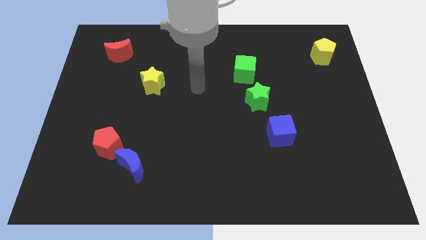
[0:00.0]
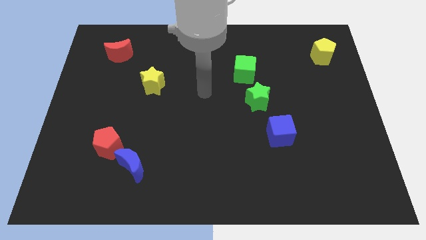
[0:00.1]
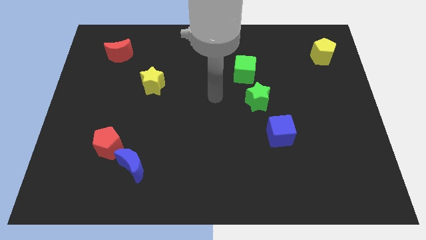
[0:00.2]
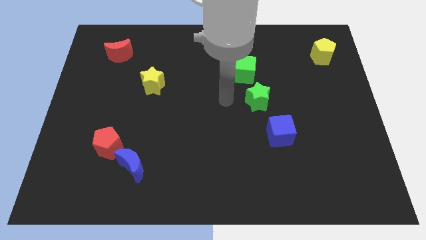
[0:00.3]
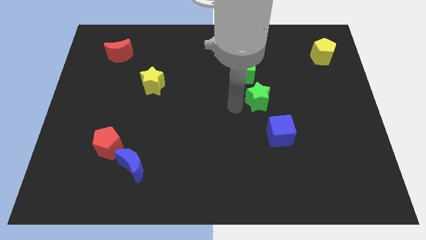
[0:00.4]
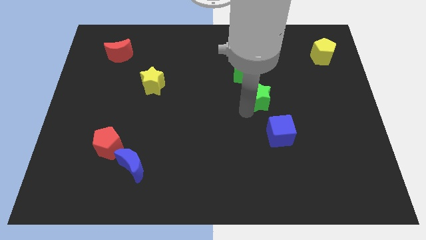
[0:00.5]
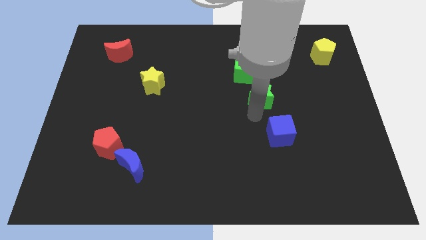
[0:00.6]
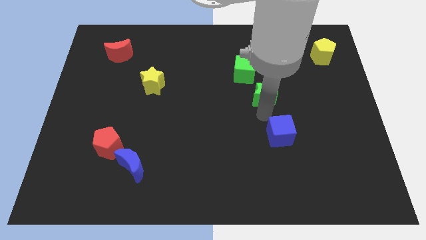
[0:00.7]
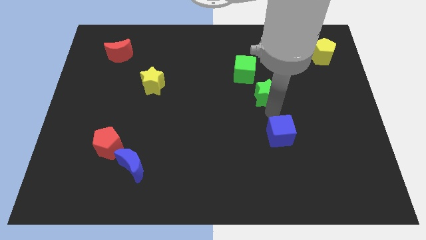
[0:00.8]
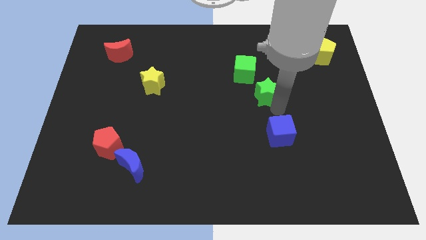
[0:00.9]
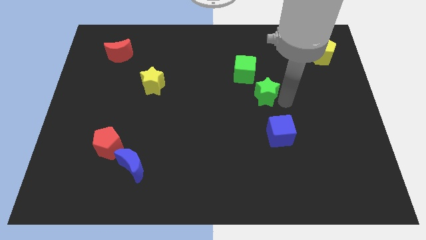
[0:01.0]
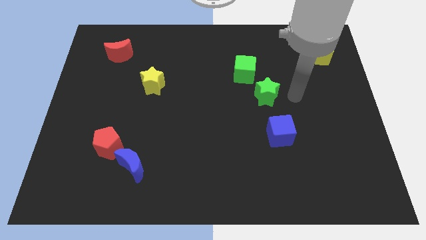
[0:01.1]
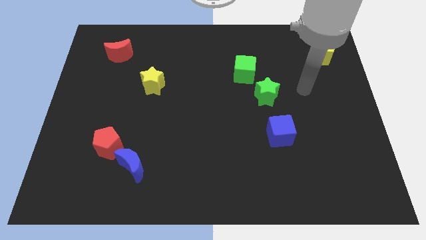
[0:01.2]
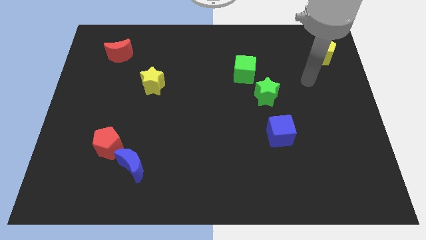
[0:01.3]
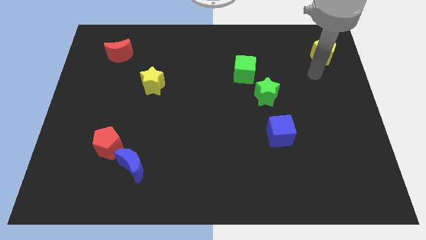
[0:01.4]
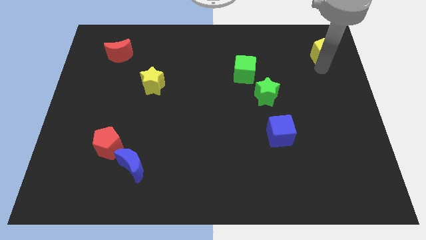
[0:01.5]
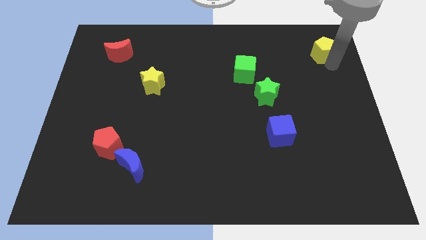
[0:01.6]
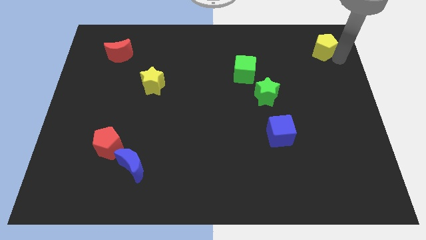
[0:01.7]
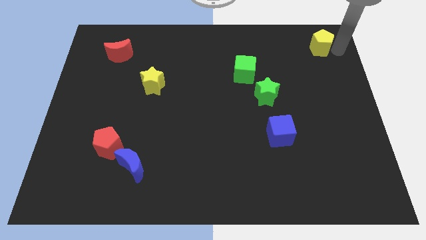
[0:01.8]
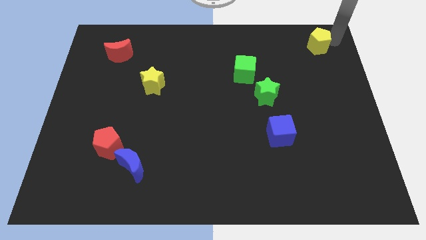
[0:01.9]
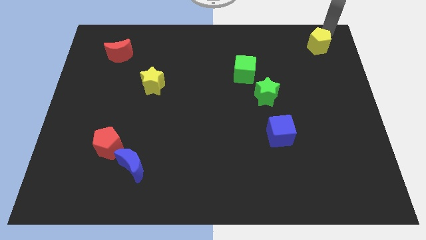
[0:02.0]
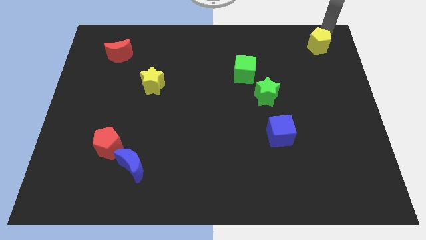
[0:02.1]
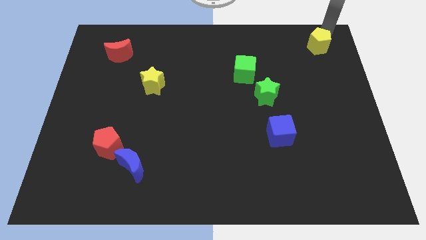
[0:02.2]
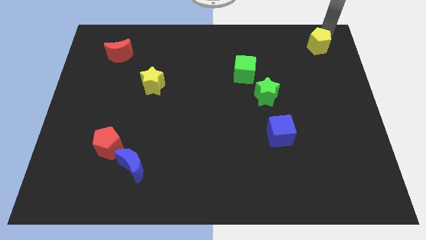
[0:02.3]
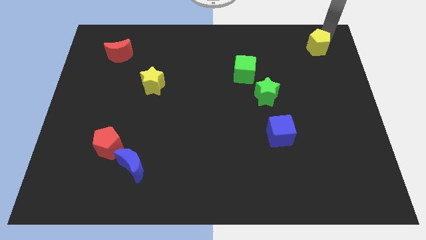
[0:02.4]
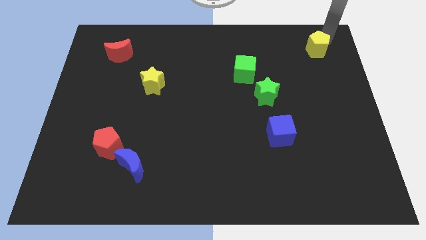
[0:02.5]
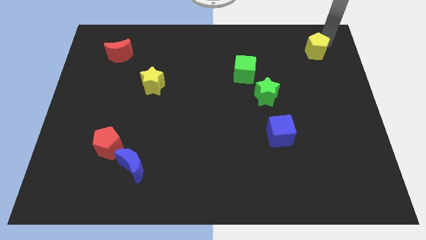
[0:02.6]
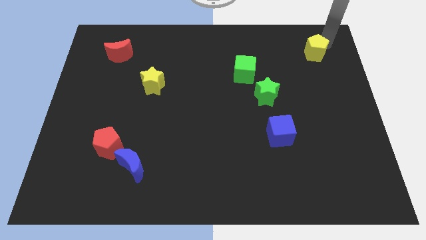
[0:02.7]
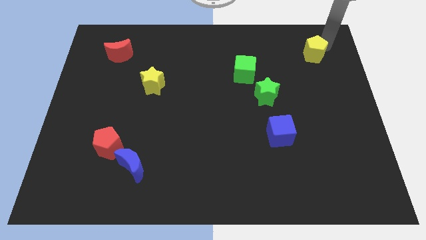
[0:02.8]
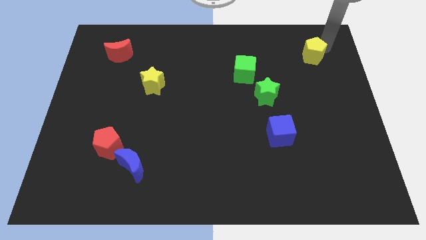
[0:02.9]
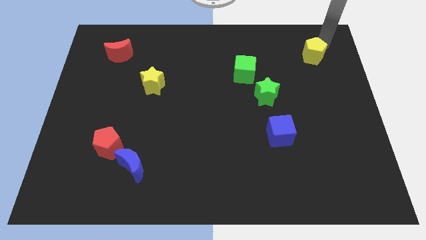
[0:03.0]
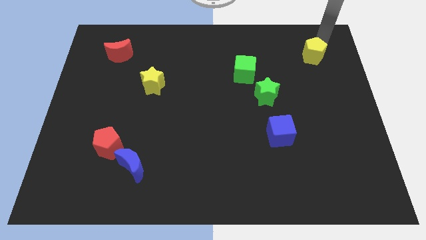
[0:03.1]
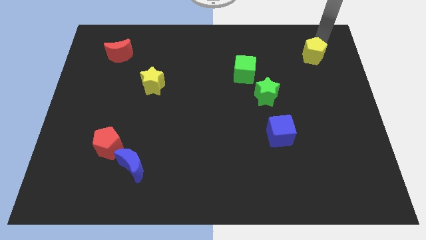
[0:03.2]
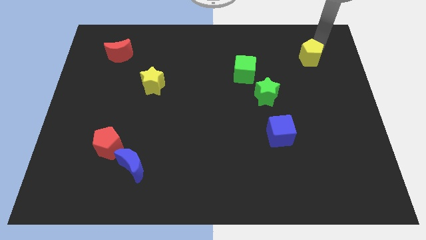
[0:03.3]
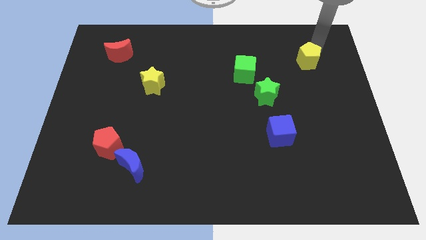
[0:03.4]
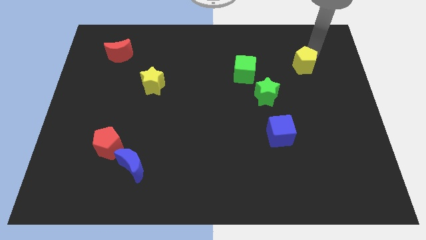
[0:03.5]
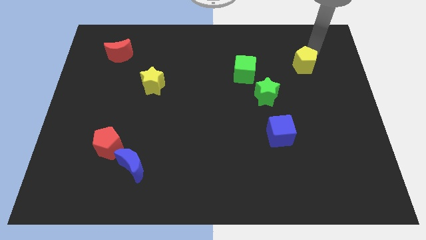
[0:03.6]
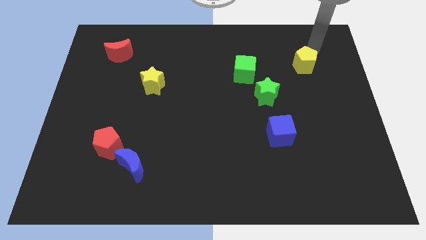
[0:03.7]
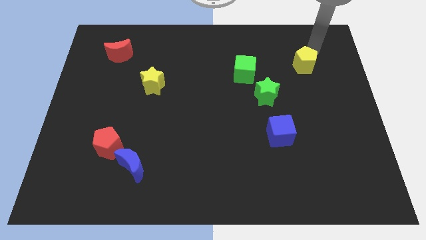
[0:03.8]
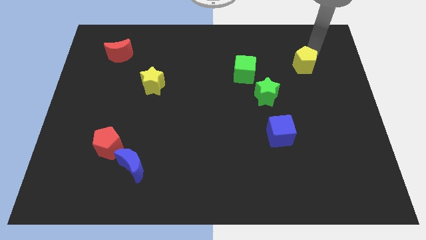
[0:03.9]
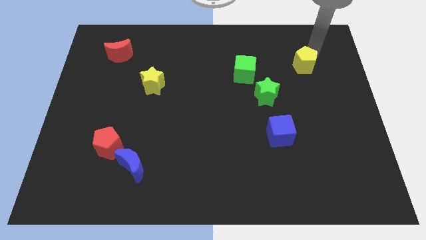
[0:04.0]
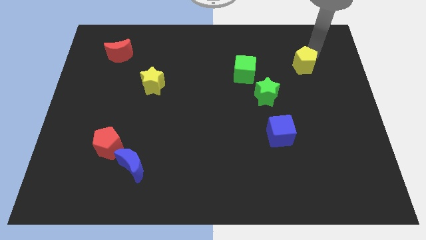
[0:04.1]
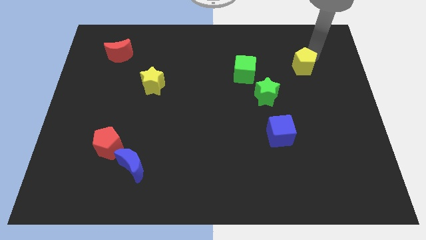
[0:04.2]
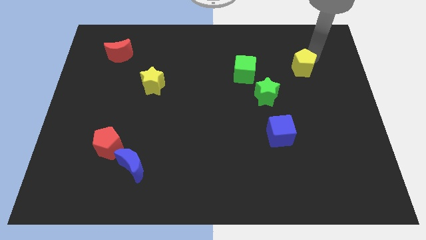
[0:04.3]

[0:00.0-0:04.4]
slightly slide the yellow pentagon downwards and then left

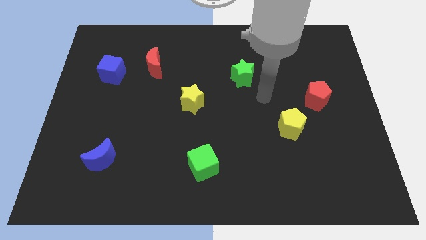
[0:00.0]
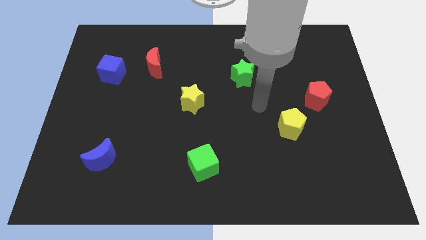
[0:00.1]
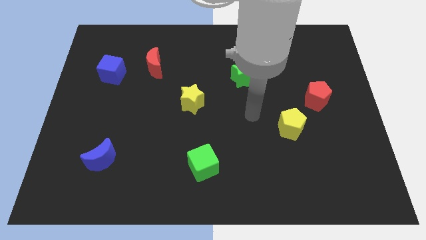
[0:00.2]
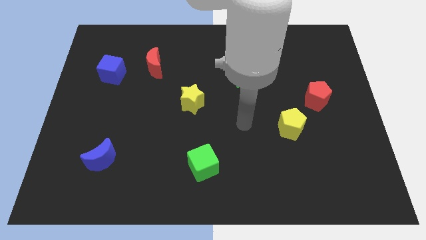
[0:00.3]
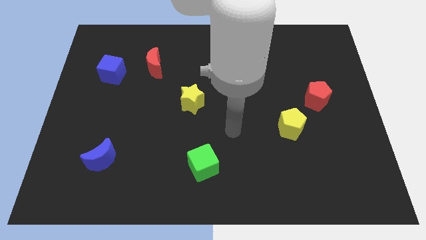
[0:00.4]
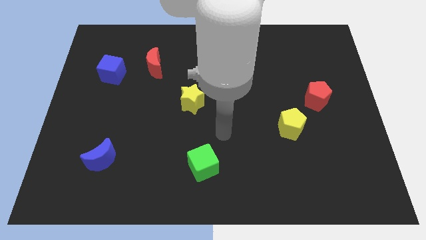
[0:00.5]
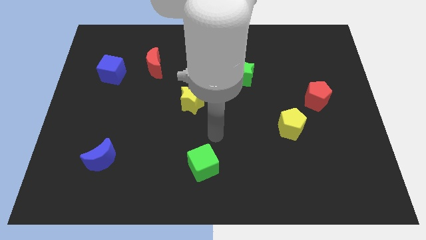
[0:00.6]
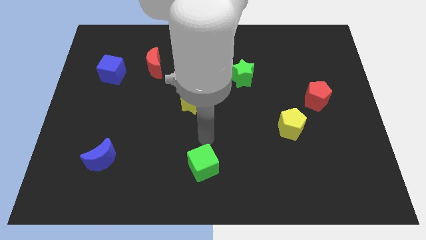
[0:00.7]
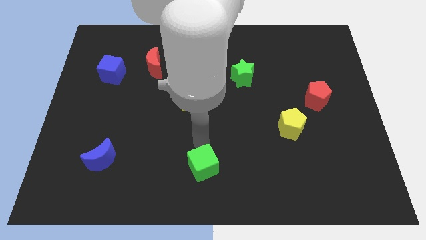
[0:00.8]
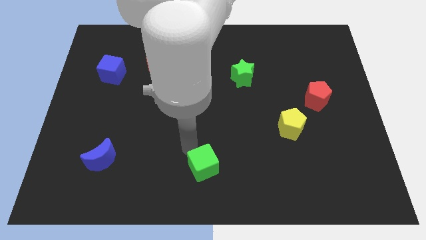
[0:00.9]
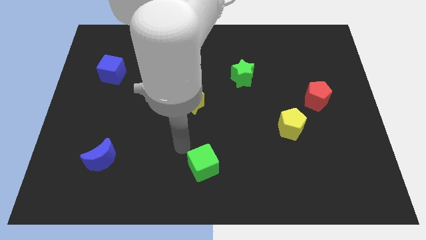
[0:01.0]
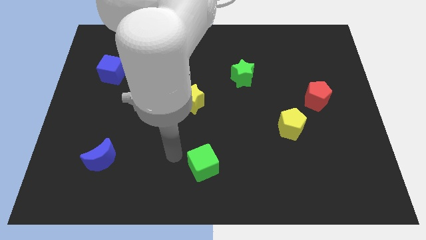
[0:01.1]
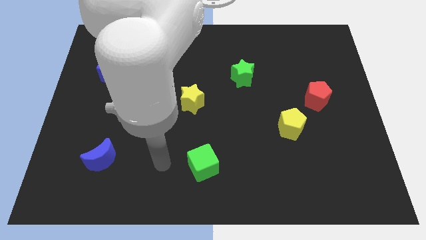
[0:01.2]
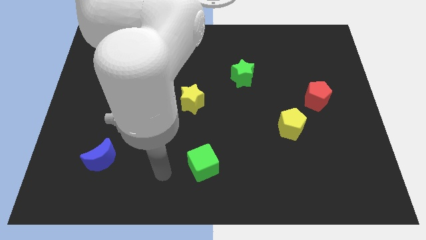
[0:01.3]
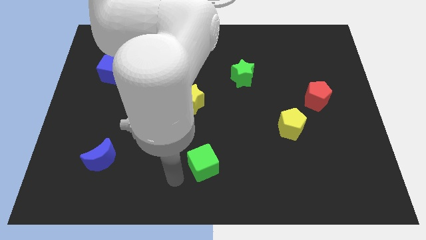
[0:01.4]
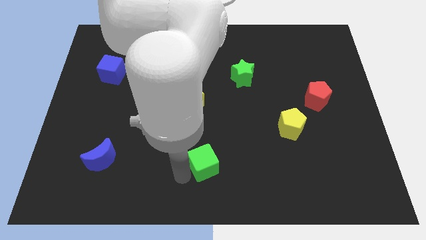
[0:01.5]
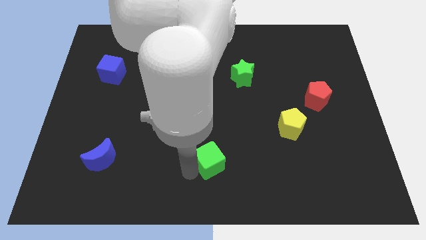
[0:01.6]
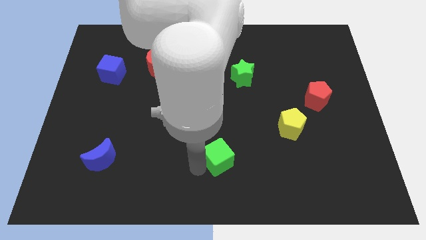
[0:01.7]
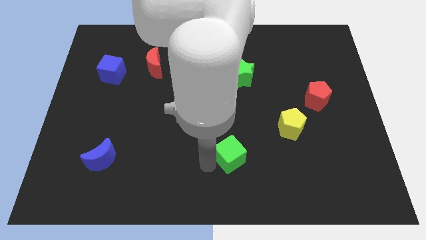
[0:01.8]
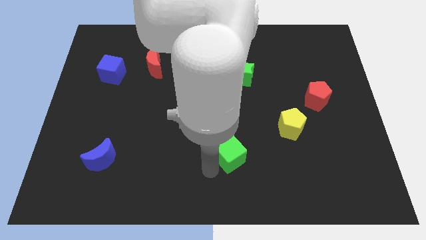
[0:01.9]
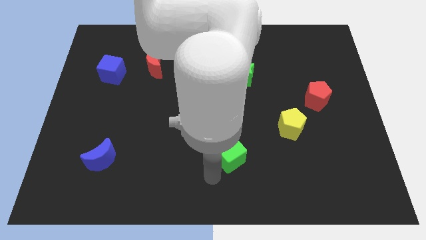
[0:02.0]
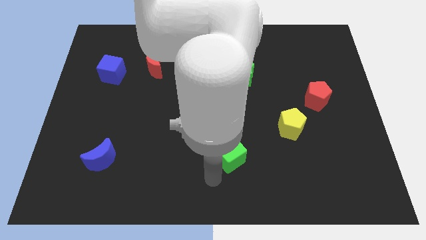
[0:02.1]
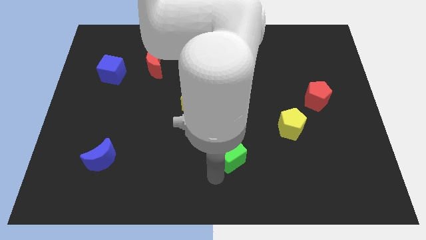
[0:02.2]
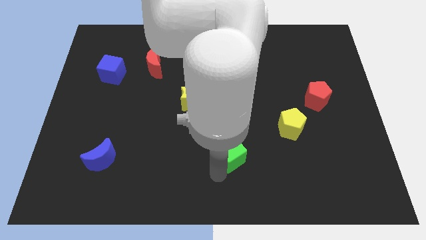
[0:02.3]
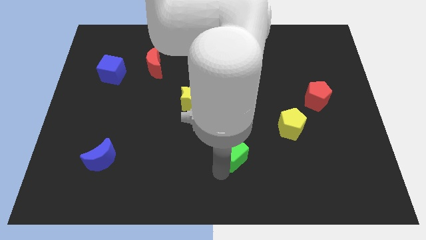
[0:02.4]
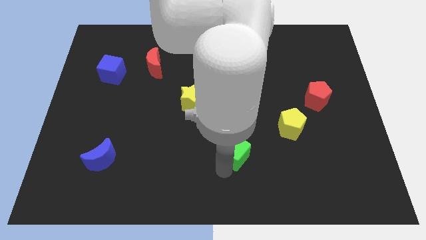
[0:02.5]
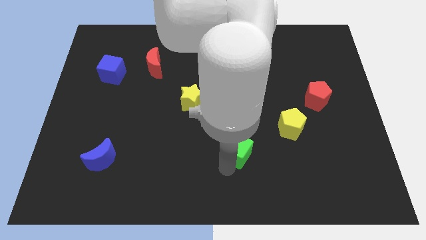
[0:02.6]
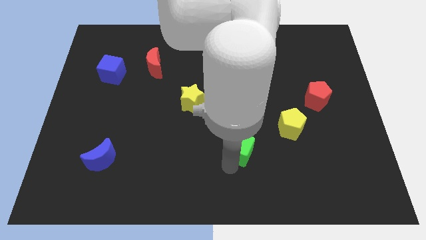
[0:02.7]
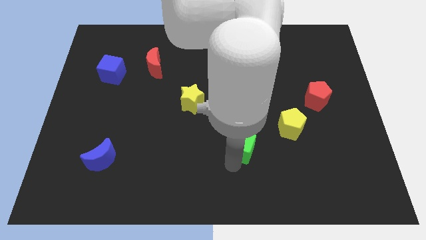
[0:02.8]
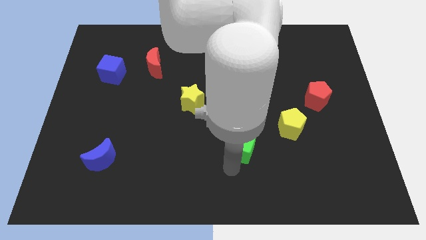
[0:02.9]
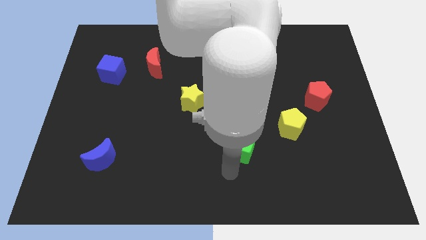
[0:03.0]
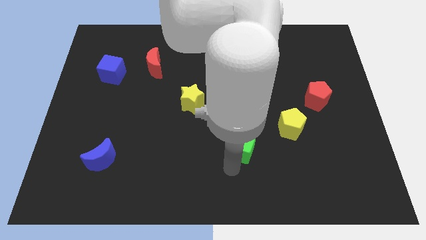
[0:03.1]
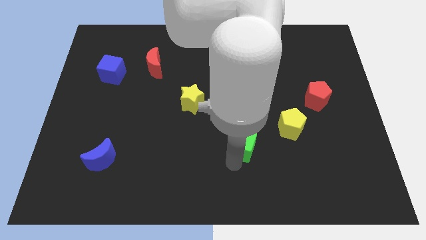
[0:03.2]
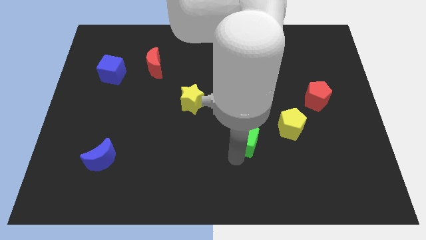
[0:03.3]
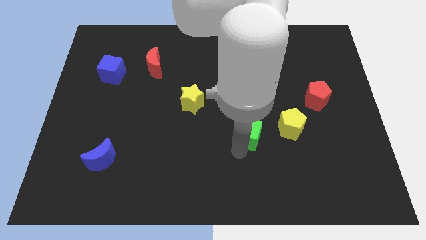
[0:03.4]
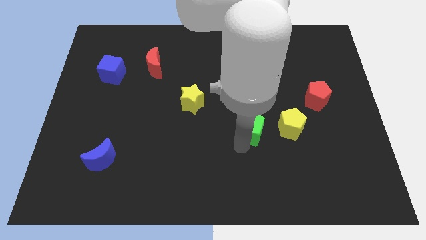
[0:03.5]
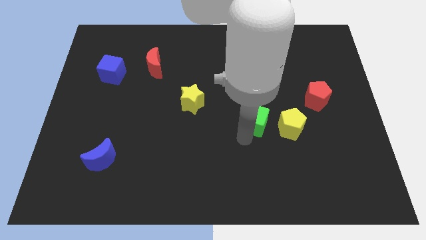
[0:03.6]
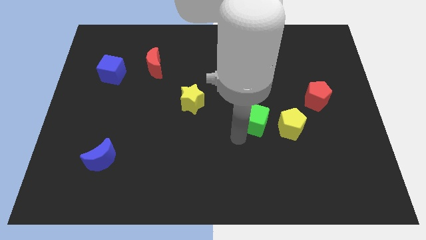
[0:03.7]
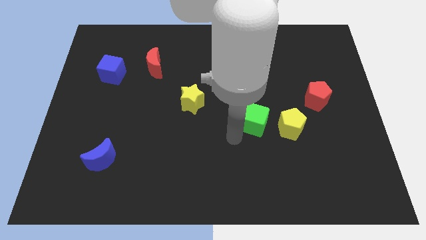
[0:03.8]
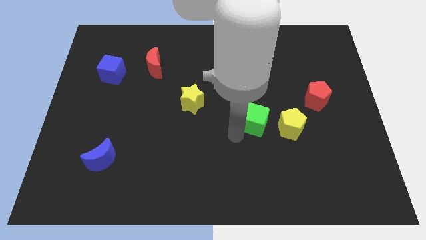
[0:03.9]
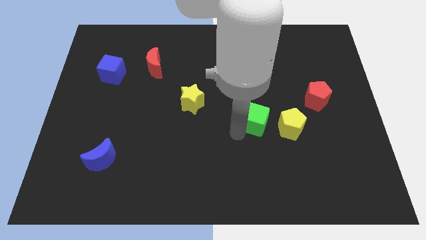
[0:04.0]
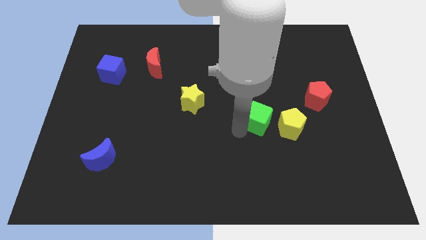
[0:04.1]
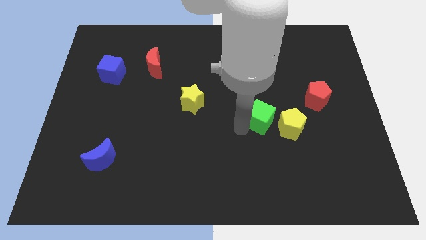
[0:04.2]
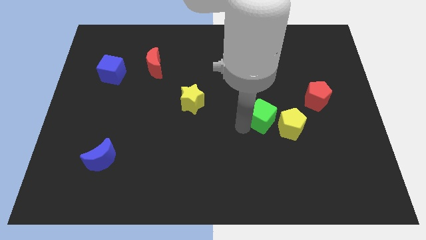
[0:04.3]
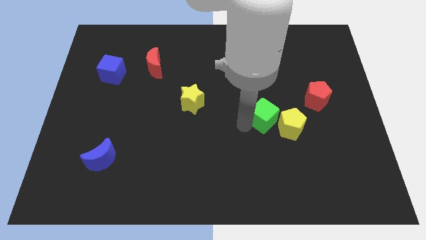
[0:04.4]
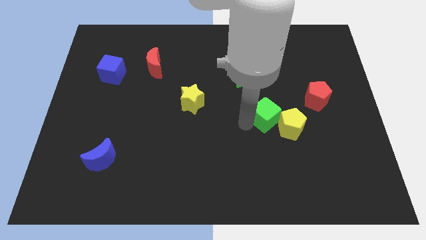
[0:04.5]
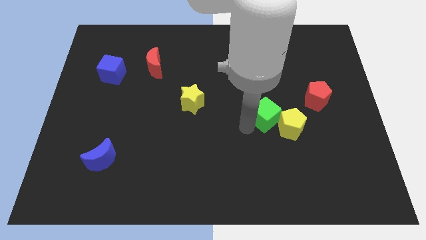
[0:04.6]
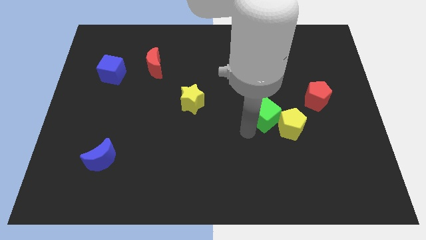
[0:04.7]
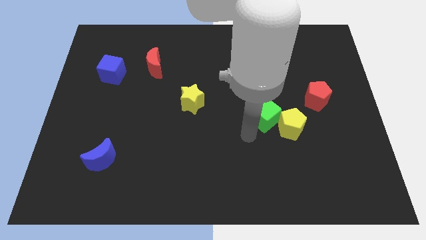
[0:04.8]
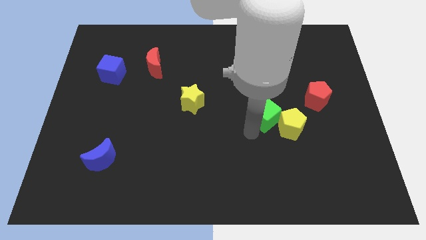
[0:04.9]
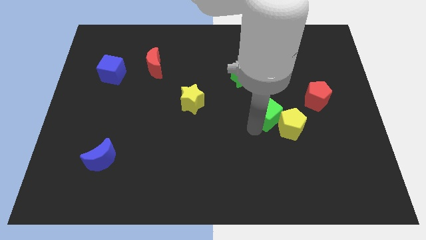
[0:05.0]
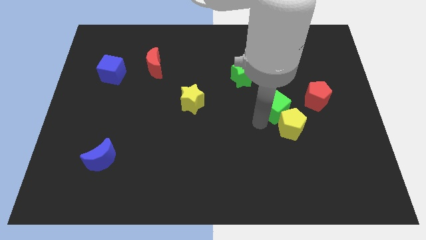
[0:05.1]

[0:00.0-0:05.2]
slide the green cube upwards and right
